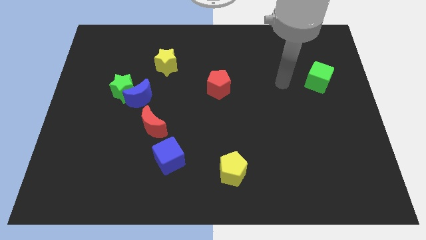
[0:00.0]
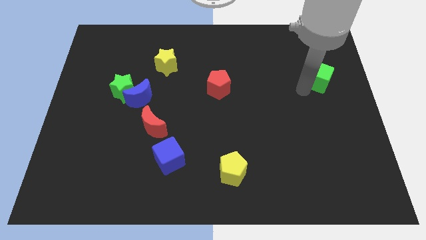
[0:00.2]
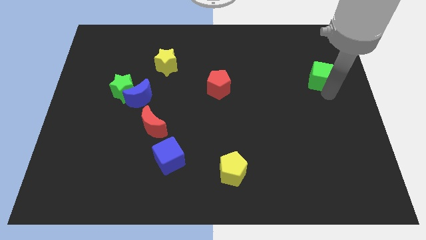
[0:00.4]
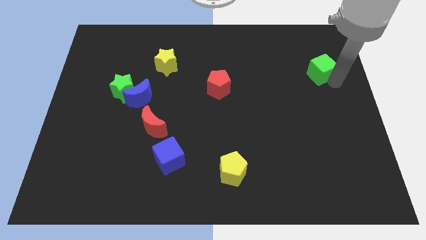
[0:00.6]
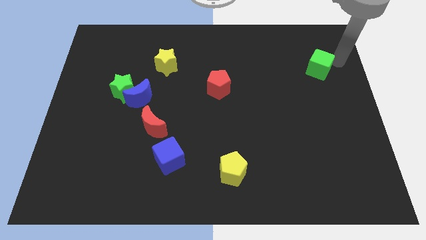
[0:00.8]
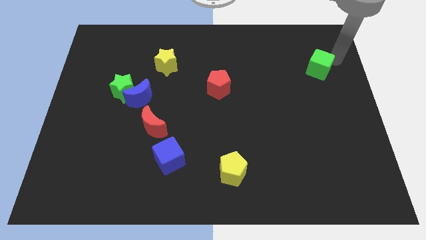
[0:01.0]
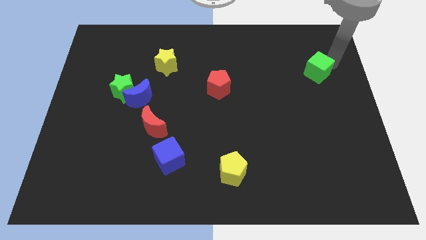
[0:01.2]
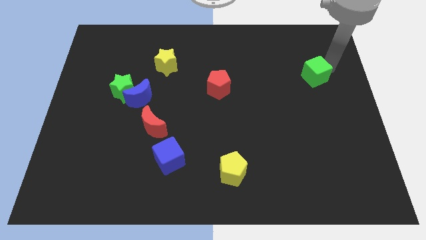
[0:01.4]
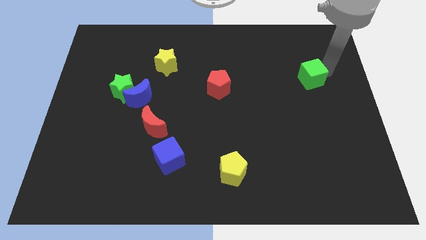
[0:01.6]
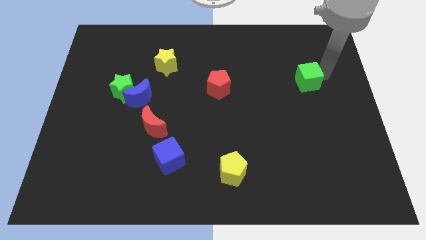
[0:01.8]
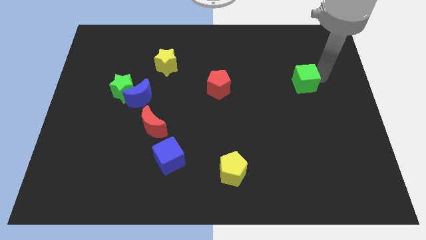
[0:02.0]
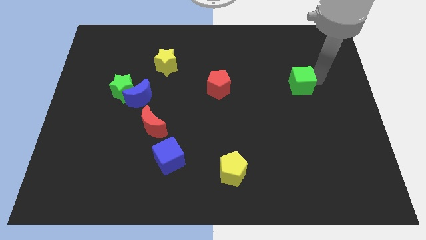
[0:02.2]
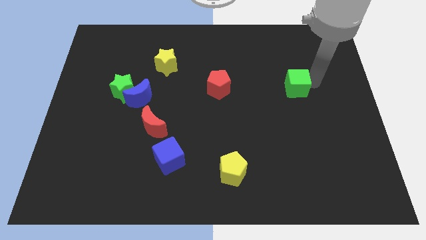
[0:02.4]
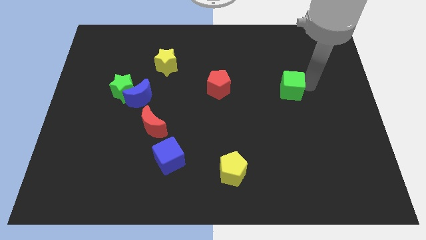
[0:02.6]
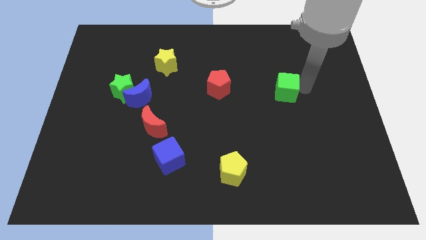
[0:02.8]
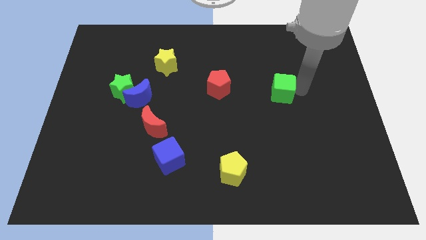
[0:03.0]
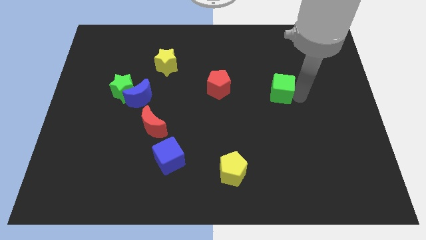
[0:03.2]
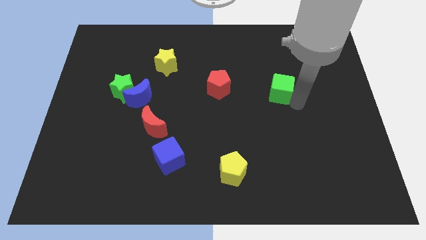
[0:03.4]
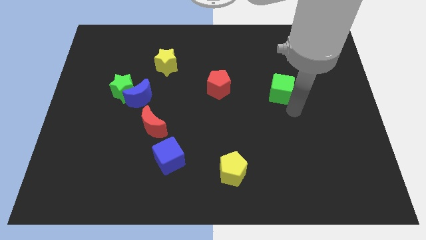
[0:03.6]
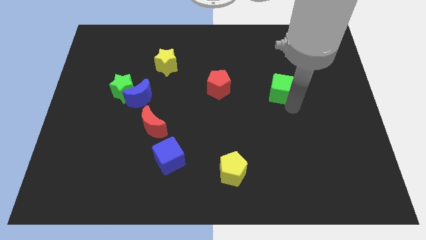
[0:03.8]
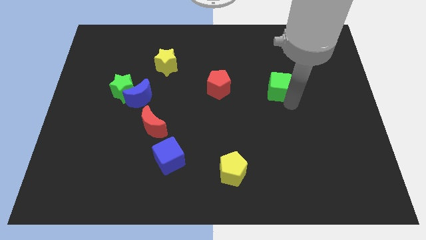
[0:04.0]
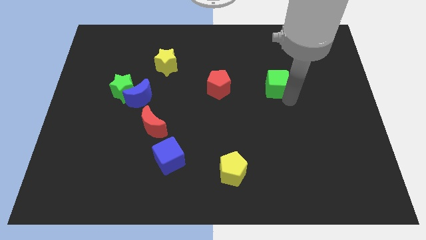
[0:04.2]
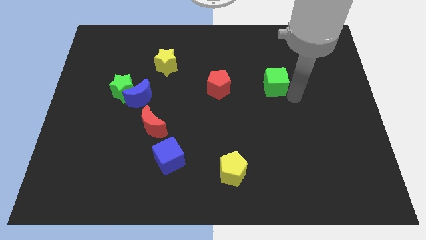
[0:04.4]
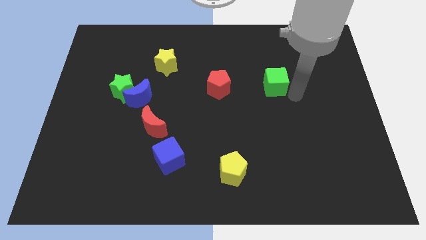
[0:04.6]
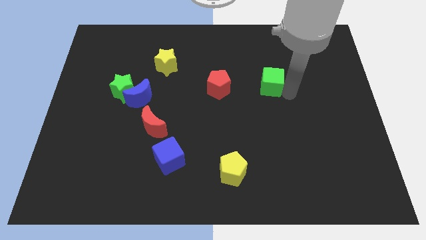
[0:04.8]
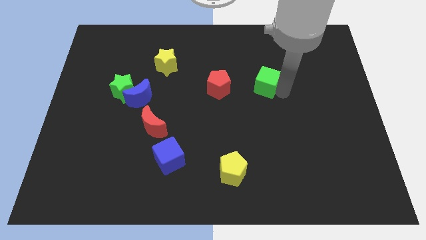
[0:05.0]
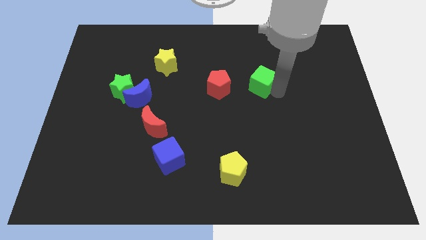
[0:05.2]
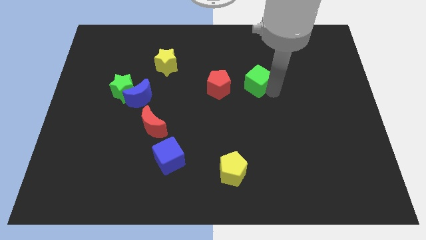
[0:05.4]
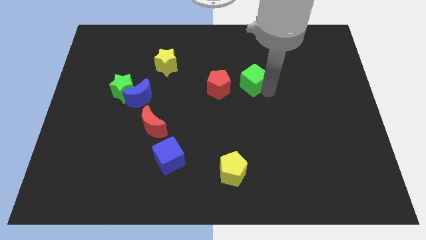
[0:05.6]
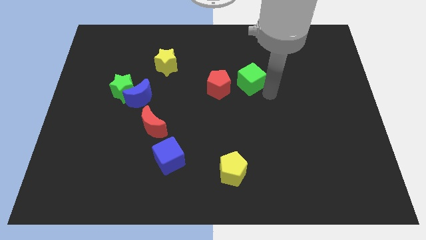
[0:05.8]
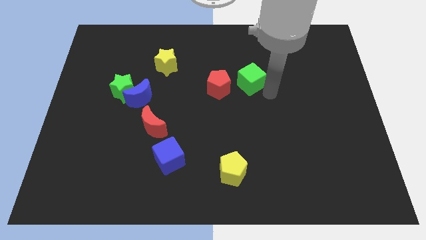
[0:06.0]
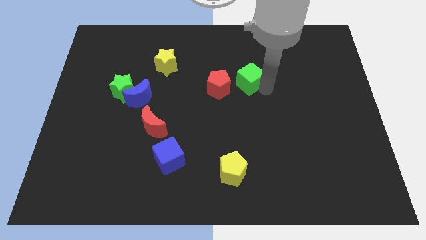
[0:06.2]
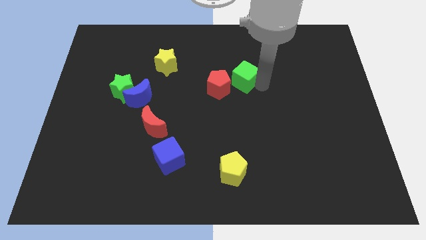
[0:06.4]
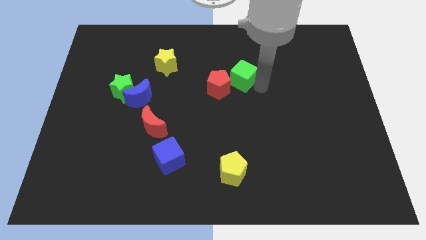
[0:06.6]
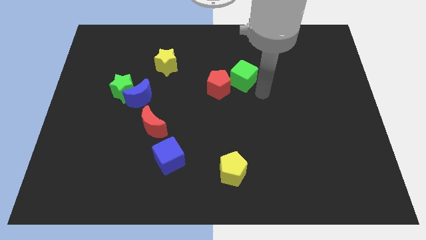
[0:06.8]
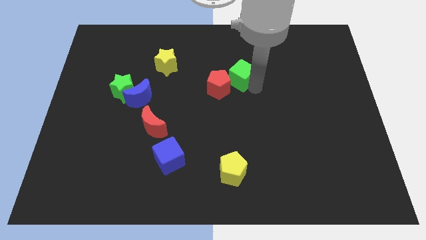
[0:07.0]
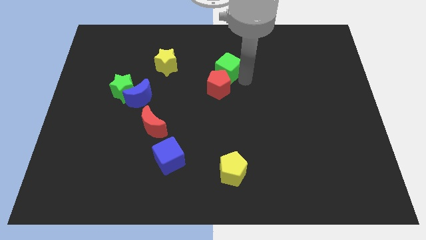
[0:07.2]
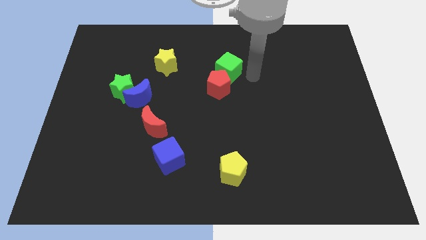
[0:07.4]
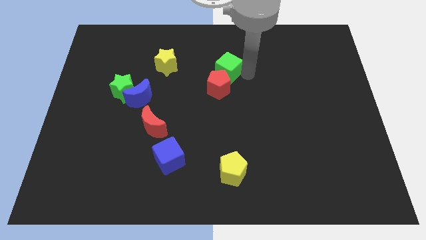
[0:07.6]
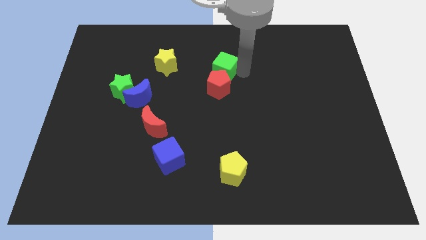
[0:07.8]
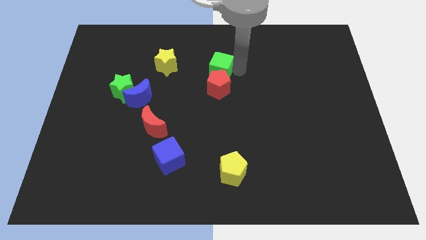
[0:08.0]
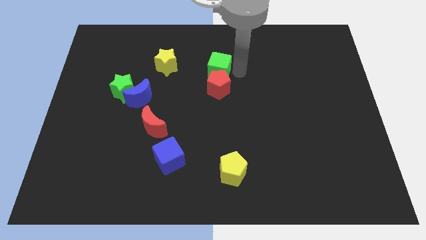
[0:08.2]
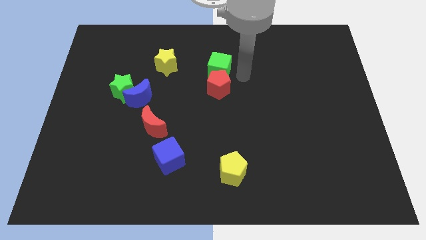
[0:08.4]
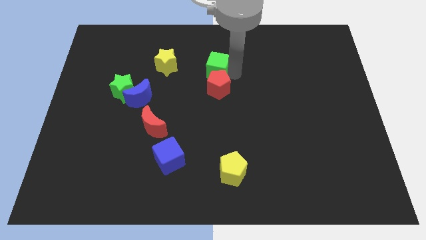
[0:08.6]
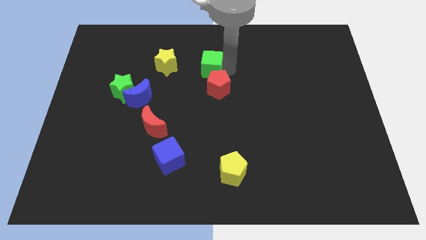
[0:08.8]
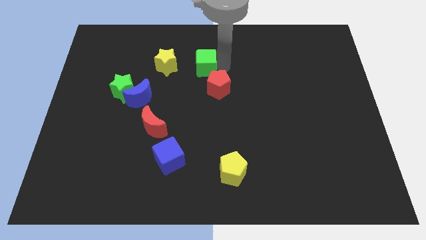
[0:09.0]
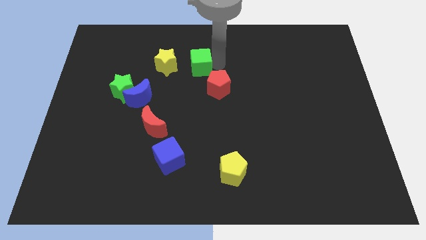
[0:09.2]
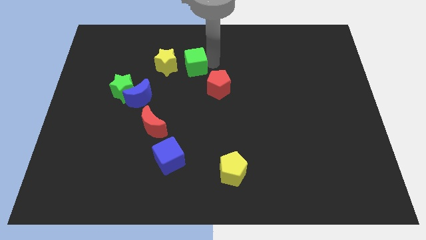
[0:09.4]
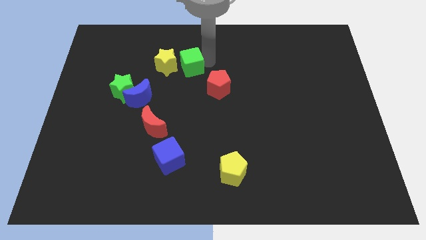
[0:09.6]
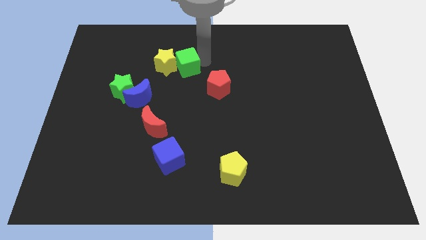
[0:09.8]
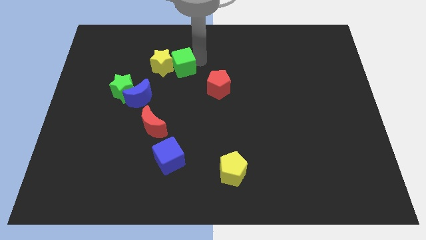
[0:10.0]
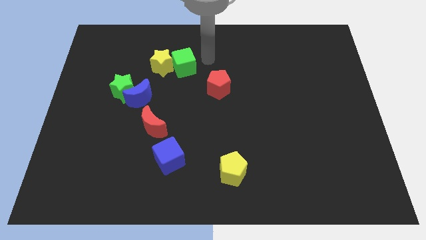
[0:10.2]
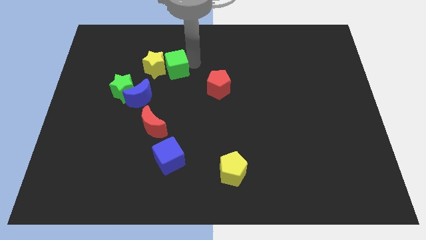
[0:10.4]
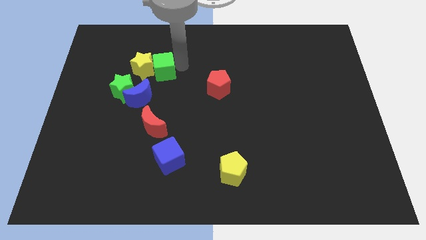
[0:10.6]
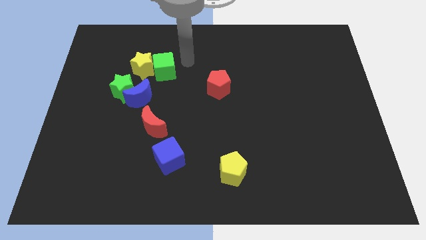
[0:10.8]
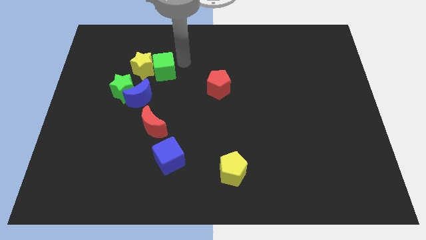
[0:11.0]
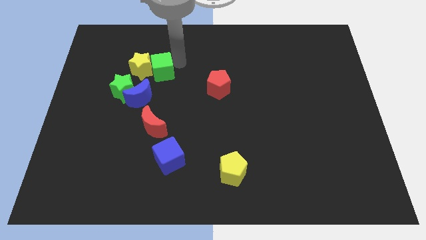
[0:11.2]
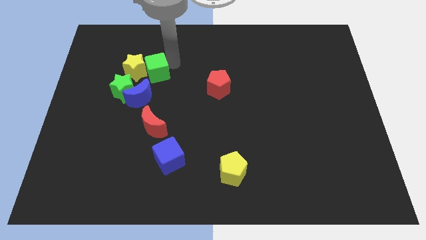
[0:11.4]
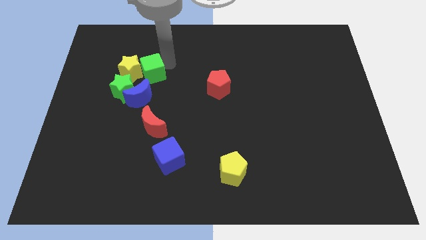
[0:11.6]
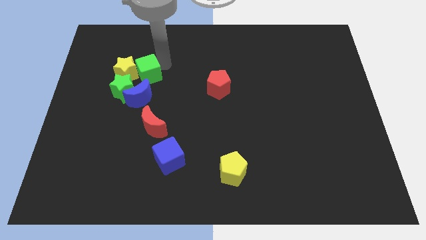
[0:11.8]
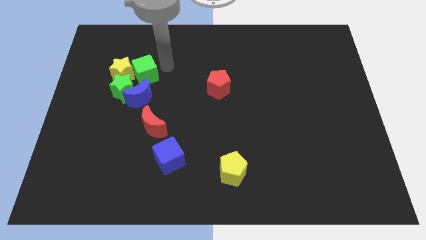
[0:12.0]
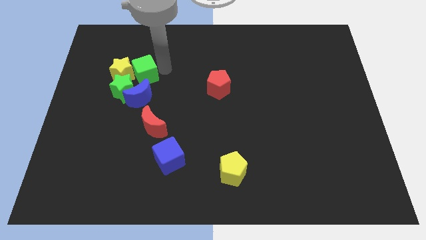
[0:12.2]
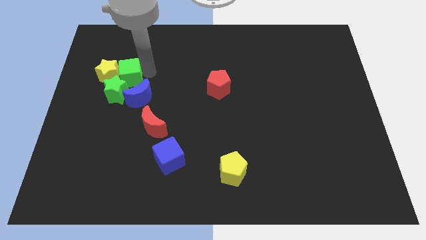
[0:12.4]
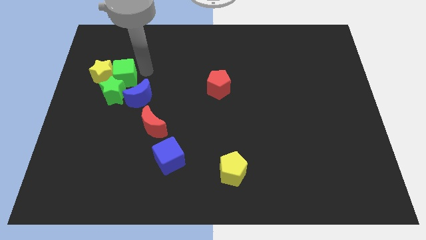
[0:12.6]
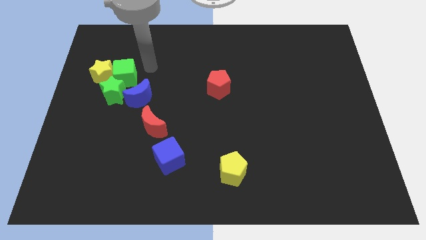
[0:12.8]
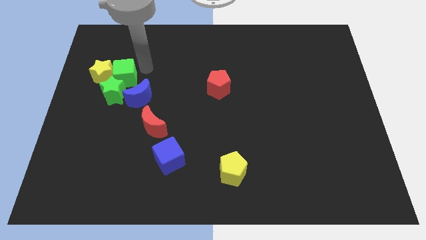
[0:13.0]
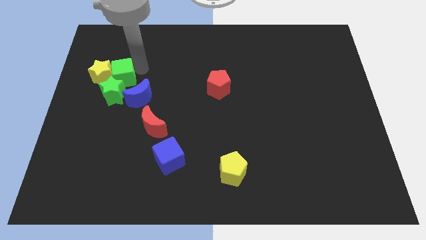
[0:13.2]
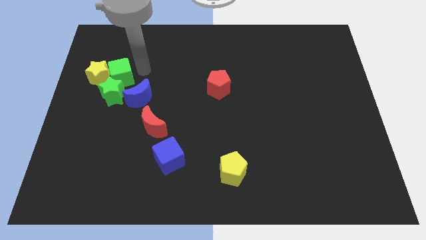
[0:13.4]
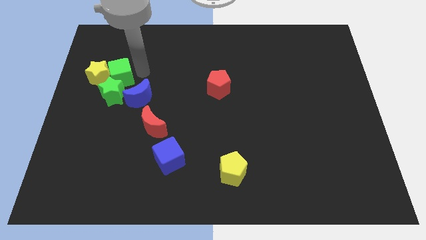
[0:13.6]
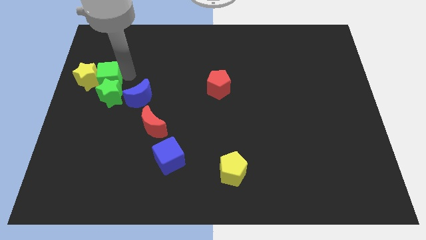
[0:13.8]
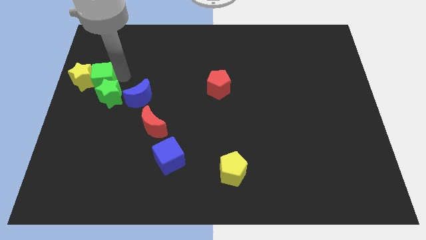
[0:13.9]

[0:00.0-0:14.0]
push the green cube to the center left

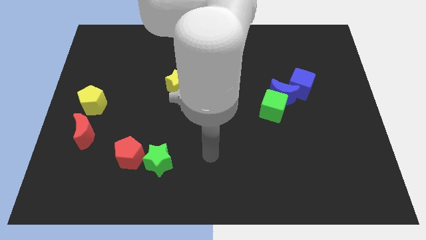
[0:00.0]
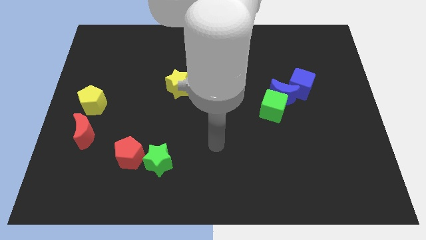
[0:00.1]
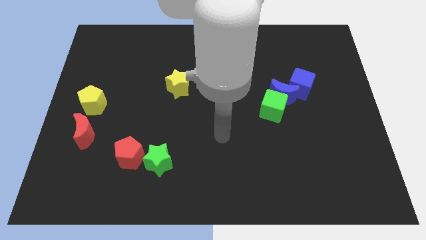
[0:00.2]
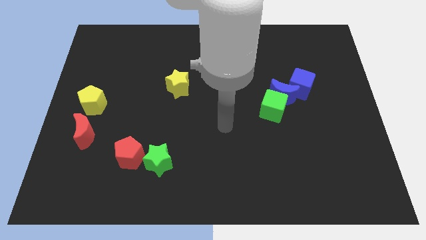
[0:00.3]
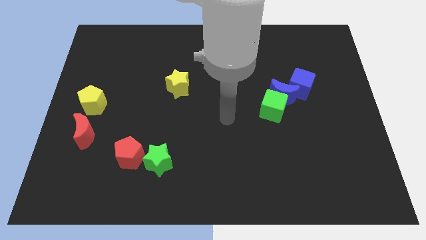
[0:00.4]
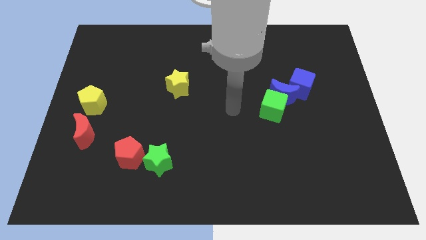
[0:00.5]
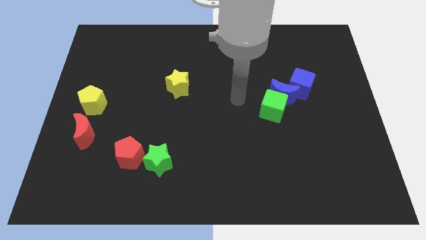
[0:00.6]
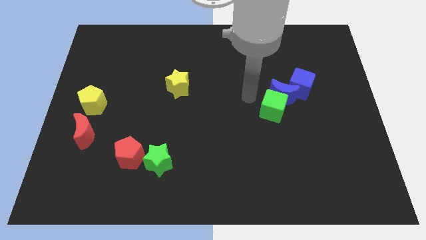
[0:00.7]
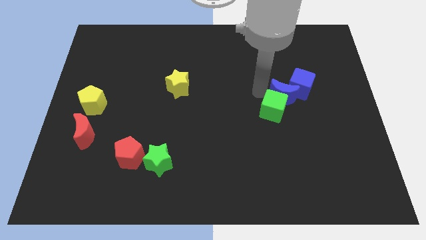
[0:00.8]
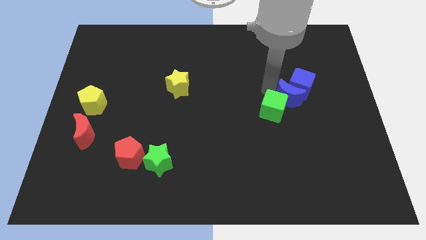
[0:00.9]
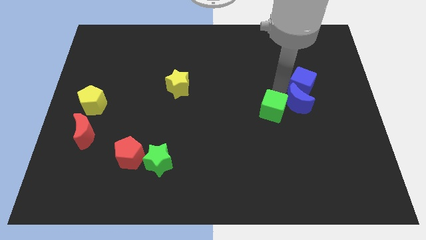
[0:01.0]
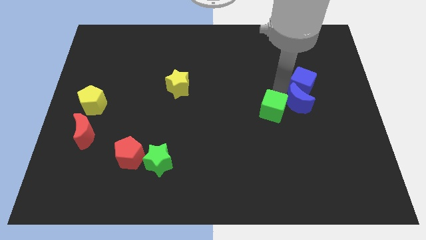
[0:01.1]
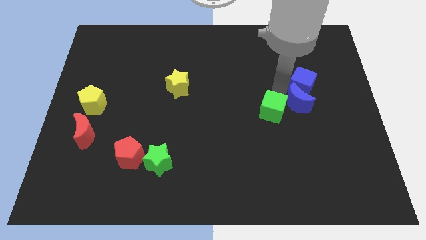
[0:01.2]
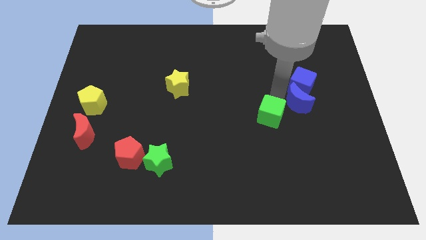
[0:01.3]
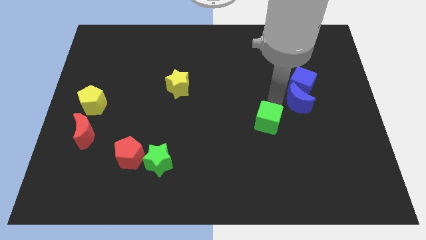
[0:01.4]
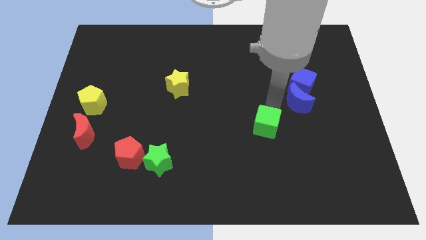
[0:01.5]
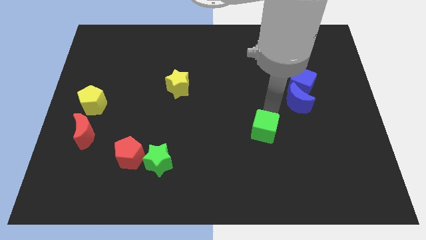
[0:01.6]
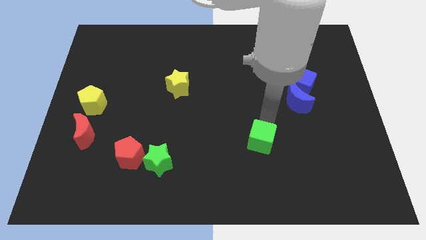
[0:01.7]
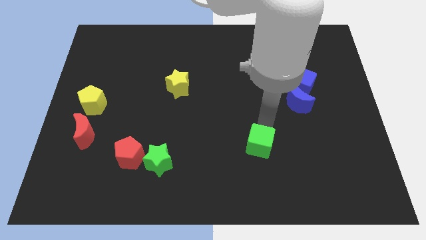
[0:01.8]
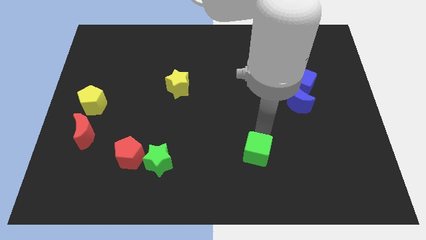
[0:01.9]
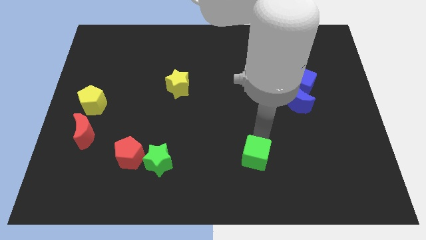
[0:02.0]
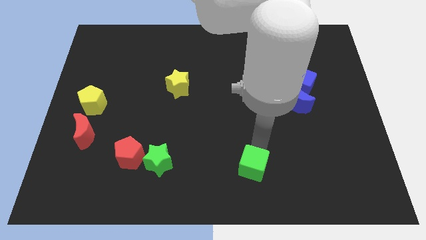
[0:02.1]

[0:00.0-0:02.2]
move the green cube to the bottom
